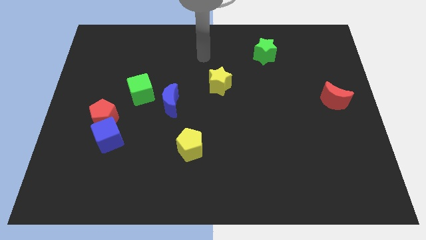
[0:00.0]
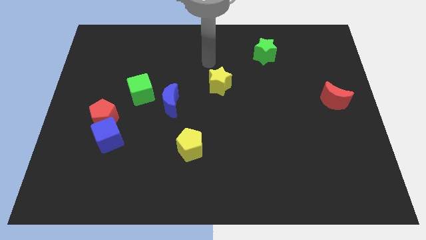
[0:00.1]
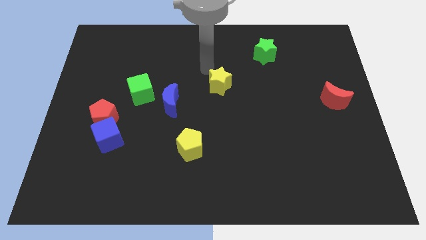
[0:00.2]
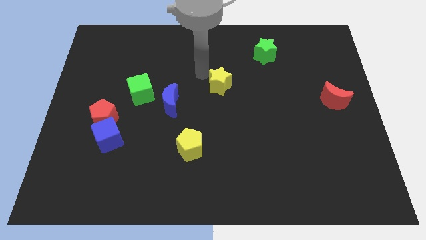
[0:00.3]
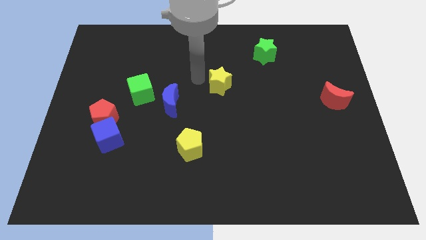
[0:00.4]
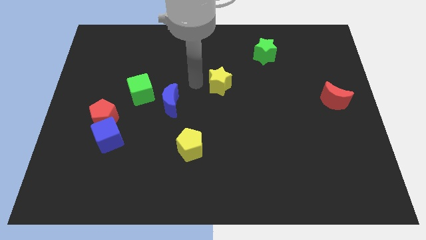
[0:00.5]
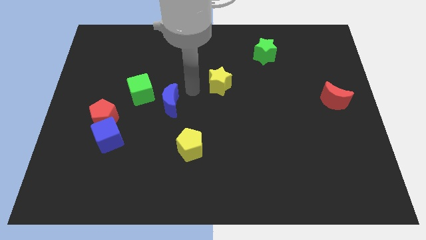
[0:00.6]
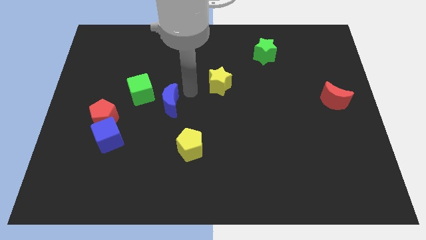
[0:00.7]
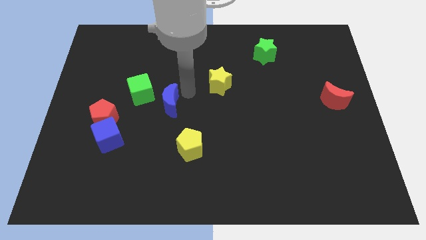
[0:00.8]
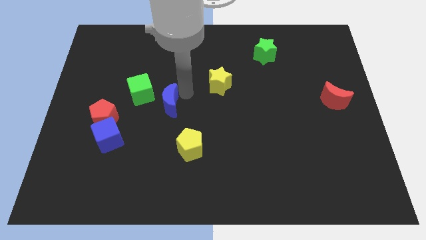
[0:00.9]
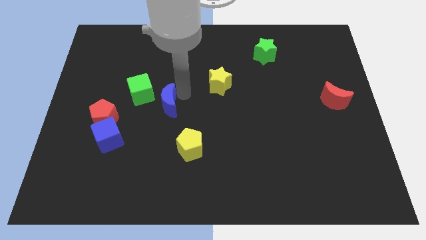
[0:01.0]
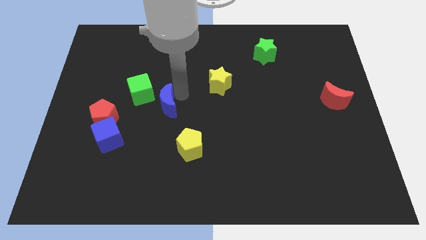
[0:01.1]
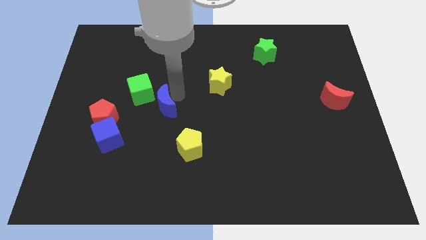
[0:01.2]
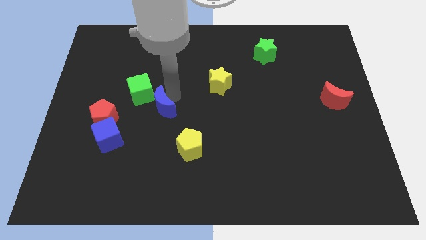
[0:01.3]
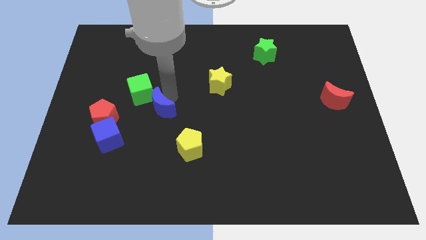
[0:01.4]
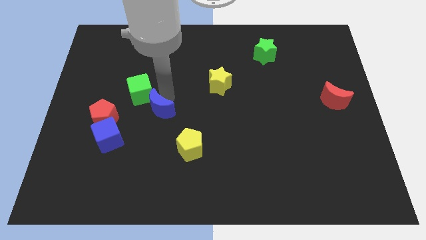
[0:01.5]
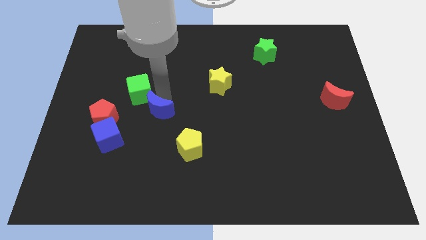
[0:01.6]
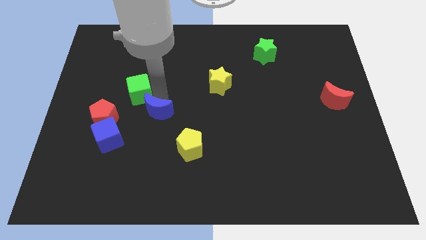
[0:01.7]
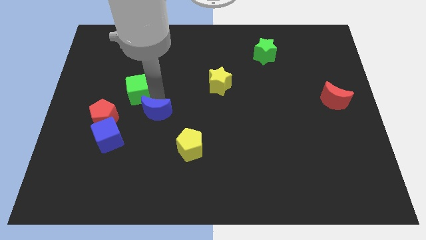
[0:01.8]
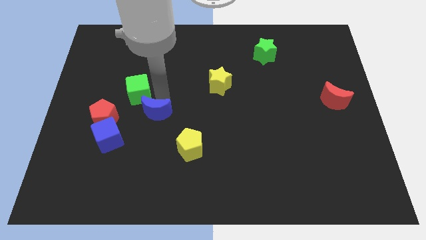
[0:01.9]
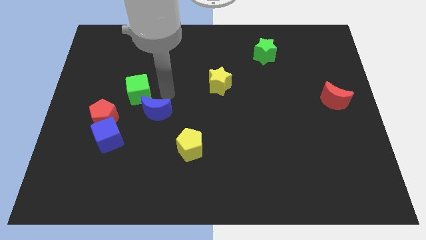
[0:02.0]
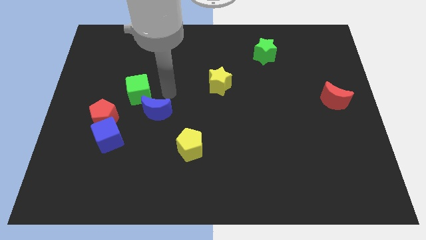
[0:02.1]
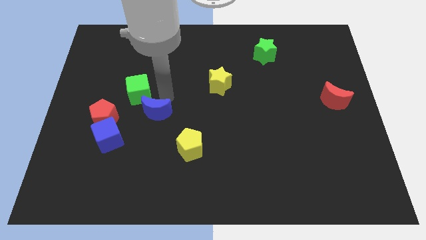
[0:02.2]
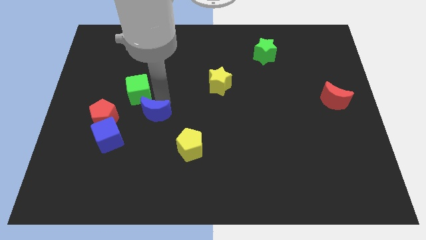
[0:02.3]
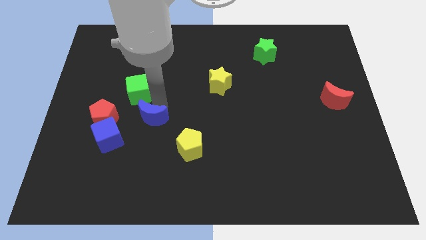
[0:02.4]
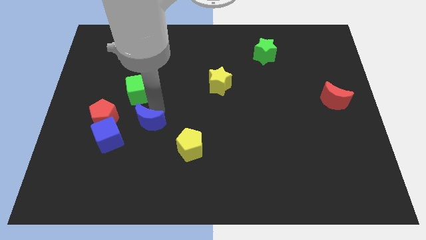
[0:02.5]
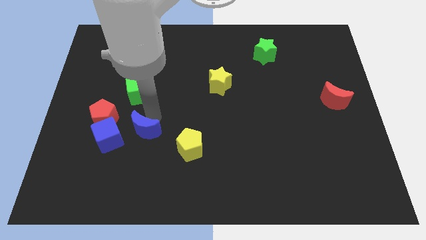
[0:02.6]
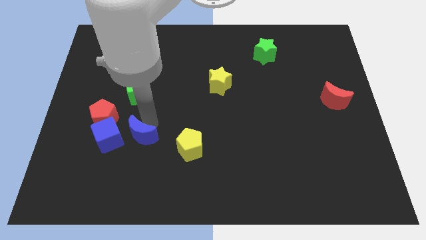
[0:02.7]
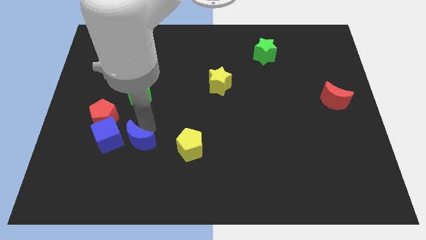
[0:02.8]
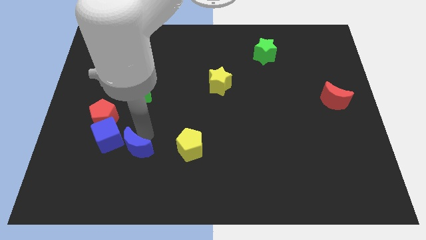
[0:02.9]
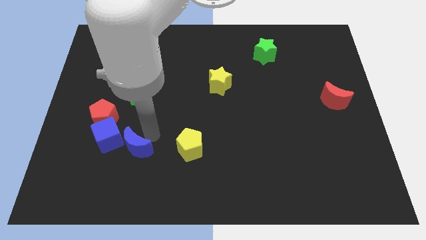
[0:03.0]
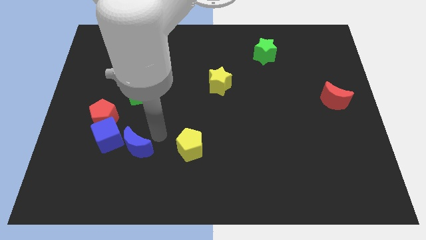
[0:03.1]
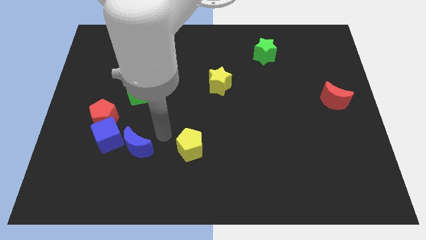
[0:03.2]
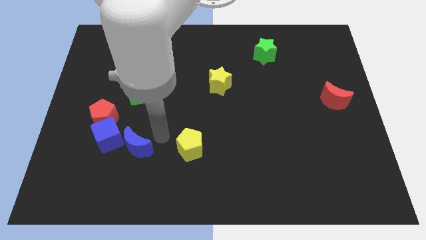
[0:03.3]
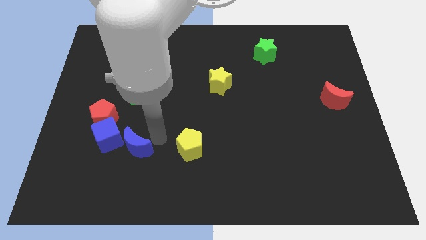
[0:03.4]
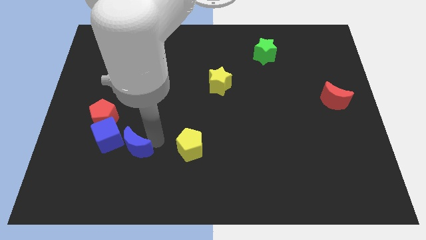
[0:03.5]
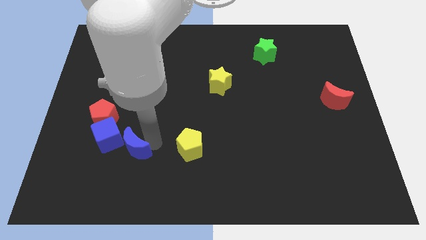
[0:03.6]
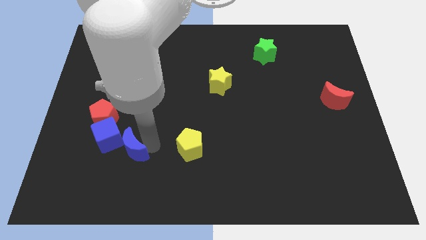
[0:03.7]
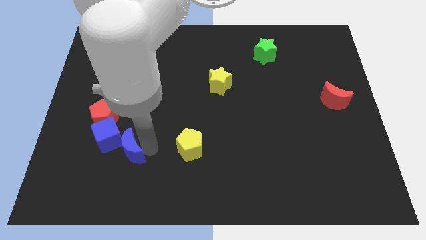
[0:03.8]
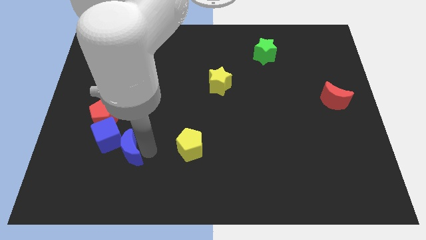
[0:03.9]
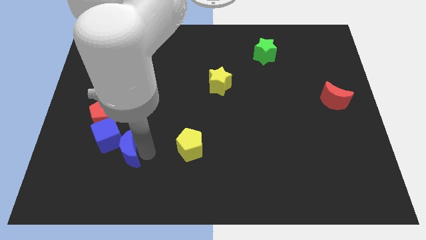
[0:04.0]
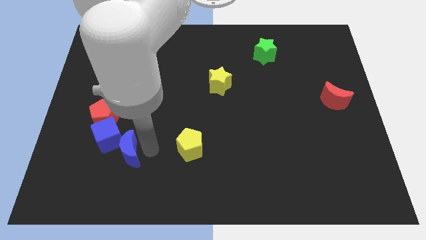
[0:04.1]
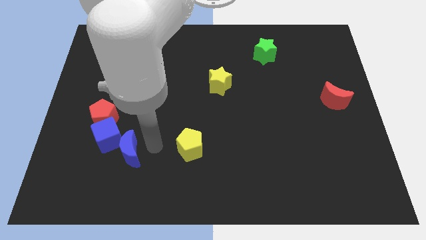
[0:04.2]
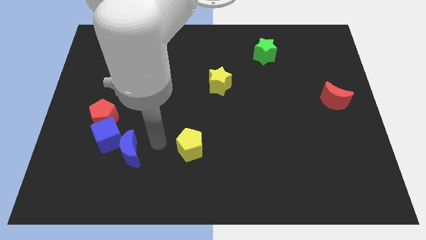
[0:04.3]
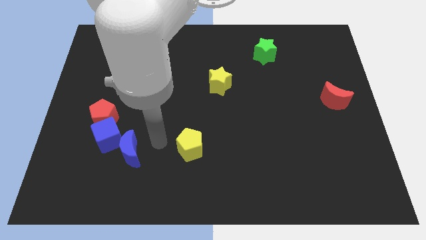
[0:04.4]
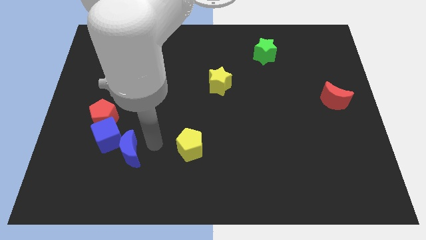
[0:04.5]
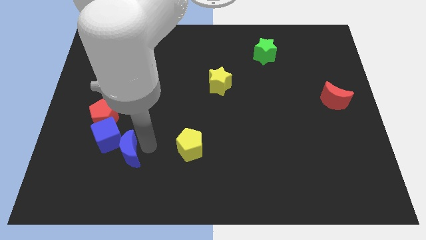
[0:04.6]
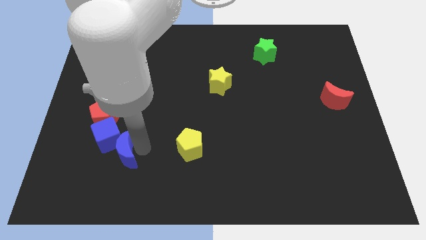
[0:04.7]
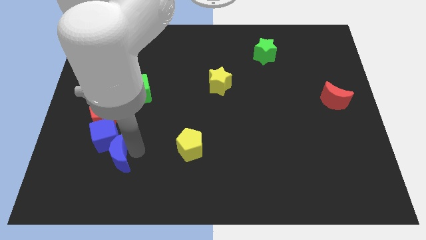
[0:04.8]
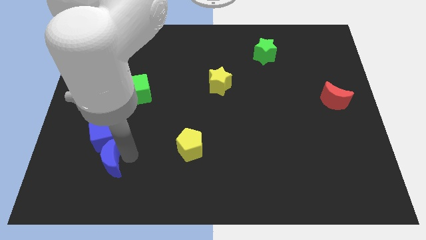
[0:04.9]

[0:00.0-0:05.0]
move the blue moon to the bottom side of the red pentagon

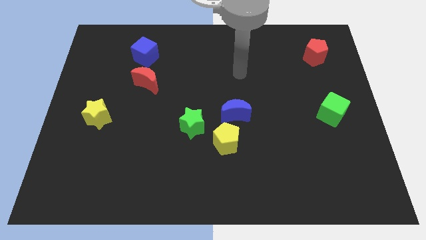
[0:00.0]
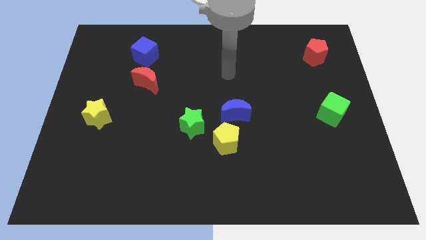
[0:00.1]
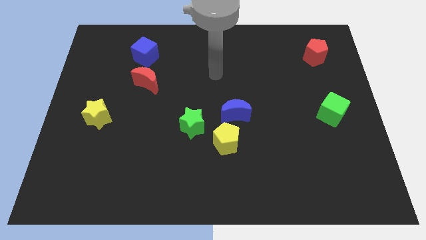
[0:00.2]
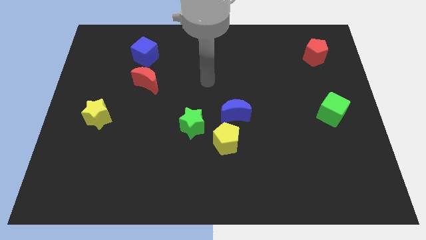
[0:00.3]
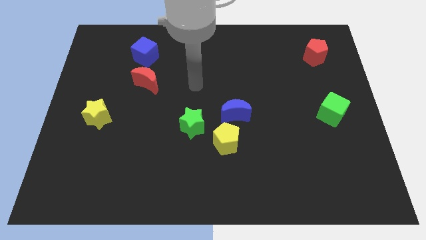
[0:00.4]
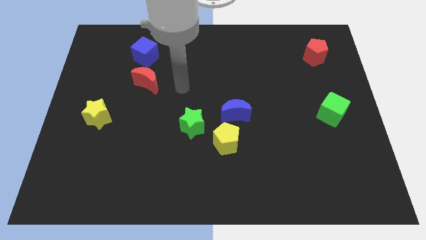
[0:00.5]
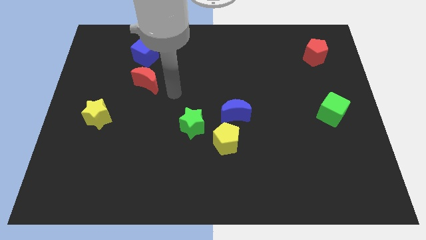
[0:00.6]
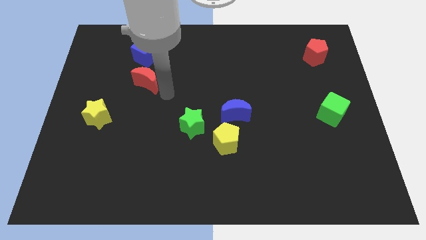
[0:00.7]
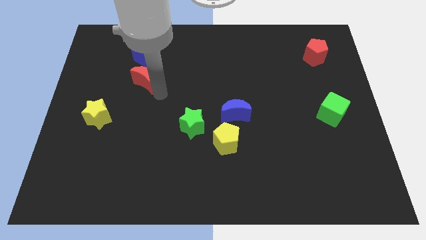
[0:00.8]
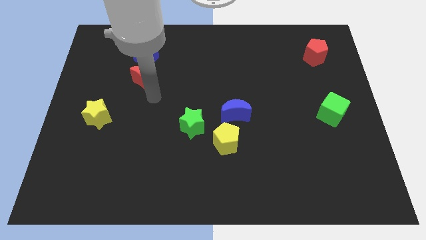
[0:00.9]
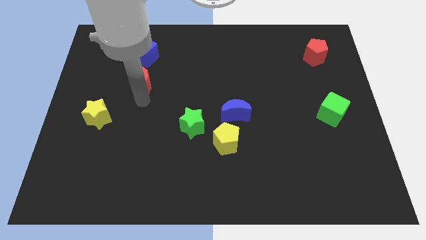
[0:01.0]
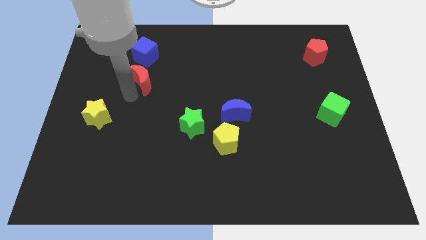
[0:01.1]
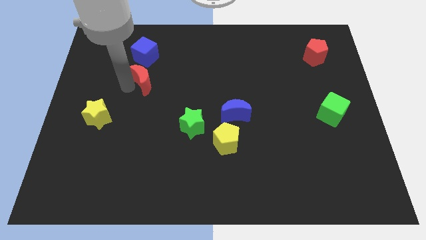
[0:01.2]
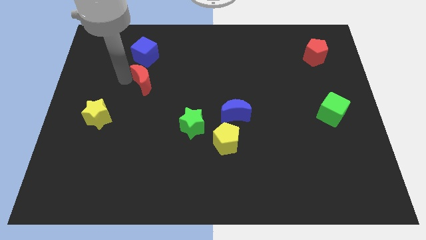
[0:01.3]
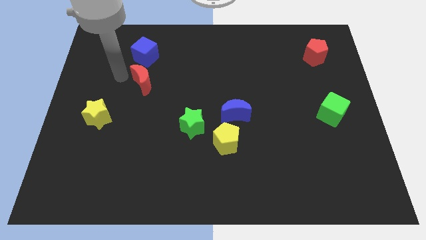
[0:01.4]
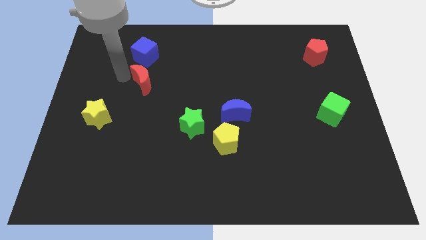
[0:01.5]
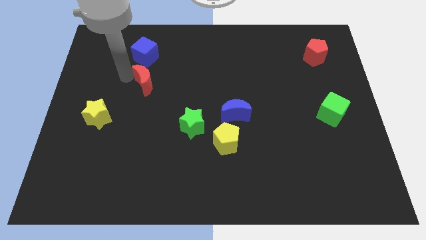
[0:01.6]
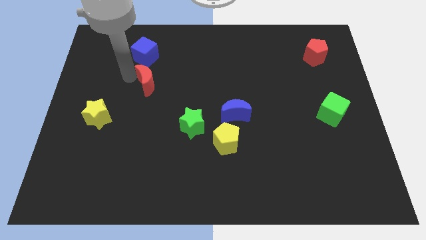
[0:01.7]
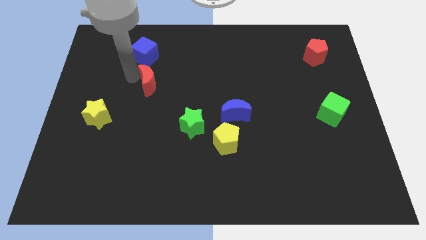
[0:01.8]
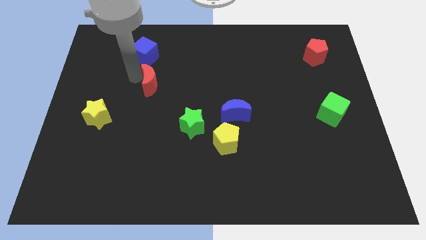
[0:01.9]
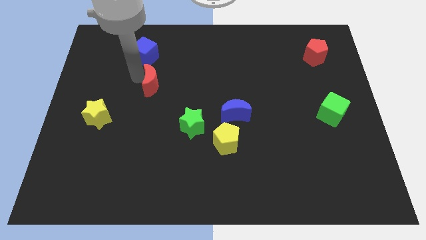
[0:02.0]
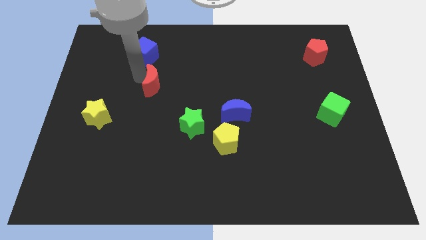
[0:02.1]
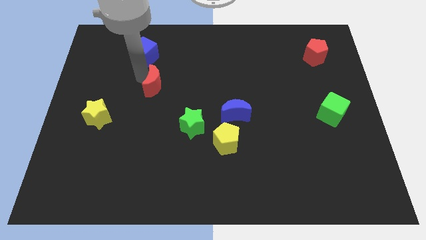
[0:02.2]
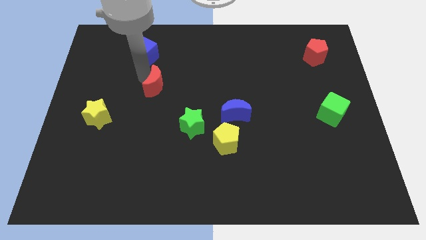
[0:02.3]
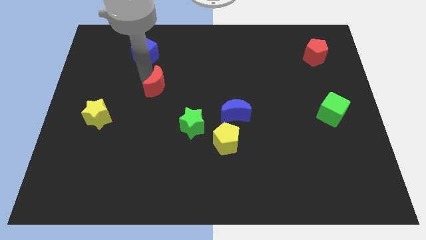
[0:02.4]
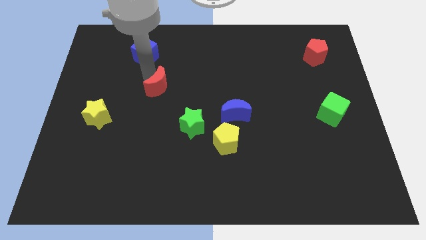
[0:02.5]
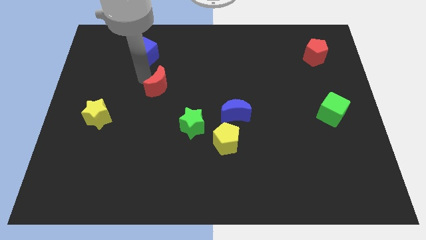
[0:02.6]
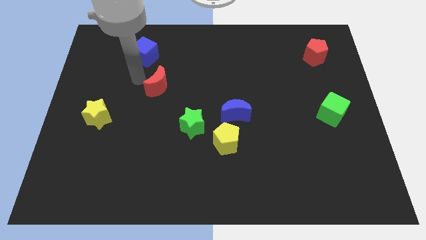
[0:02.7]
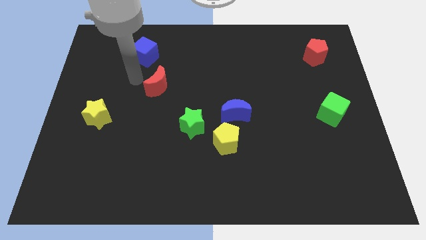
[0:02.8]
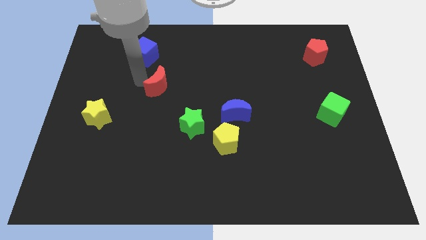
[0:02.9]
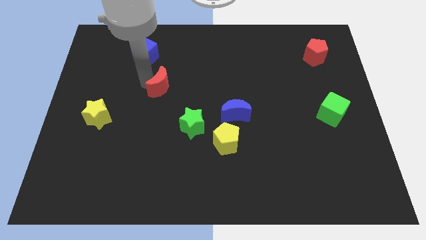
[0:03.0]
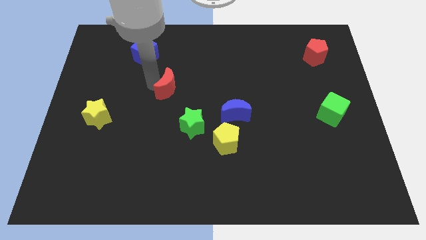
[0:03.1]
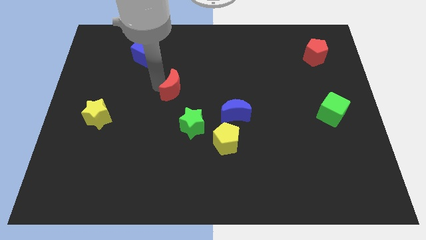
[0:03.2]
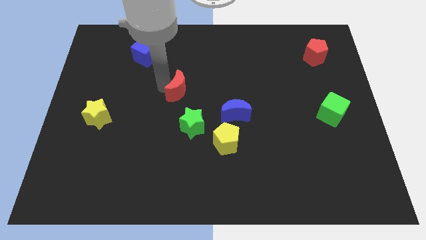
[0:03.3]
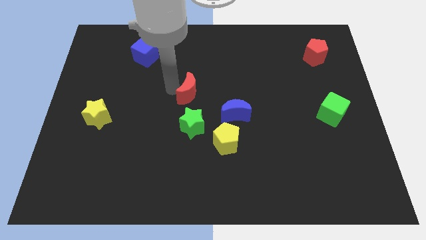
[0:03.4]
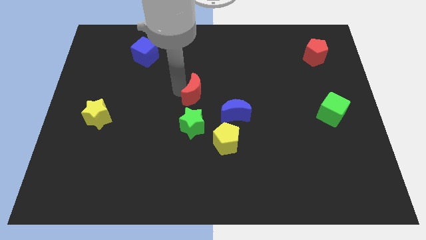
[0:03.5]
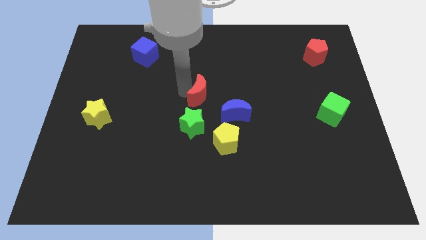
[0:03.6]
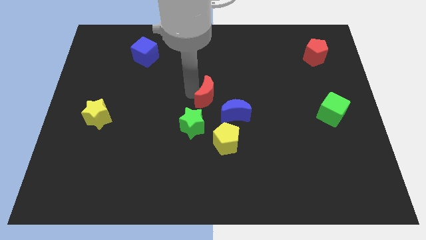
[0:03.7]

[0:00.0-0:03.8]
put the red moon to the top of the yellow pentagon
